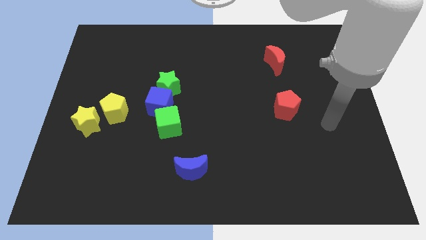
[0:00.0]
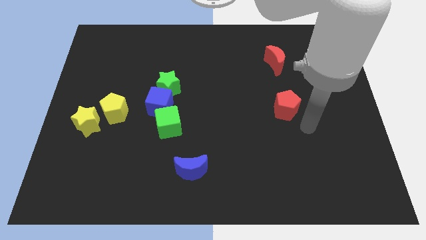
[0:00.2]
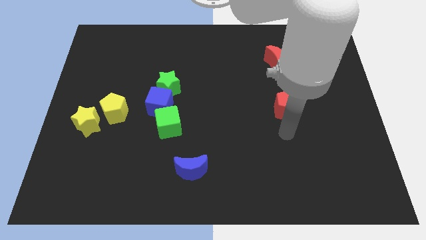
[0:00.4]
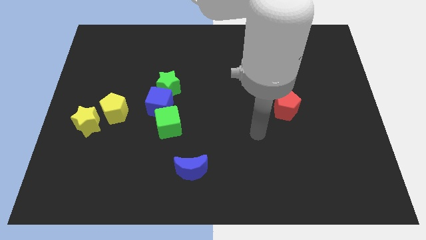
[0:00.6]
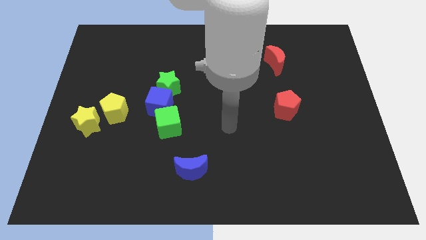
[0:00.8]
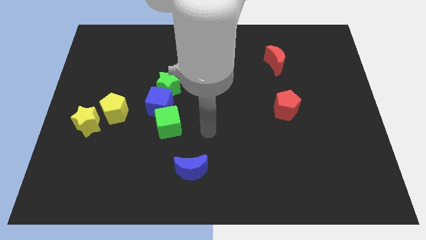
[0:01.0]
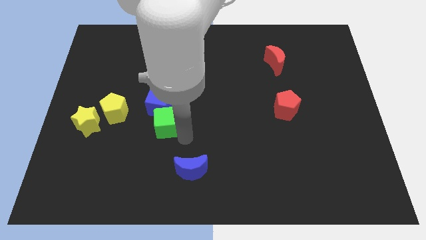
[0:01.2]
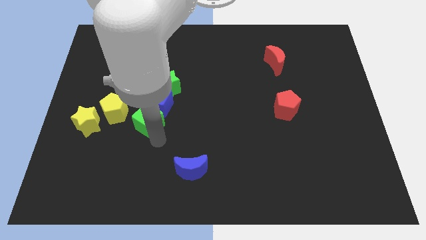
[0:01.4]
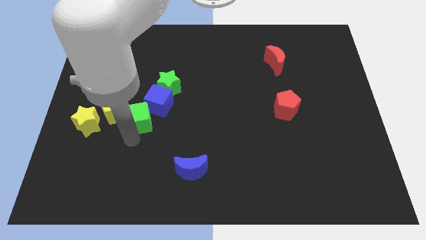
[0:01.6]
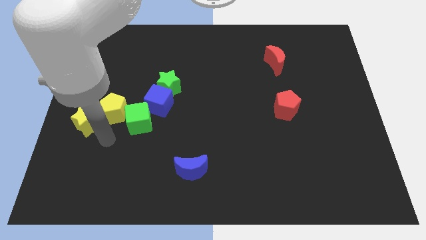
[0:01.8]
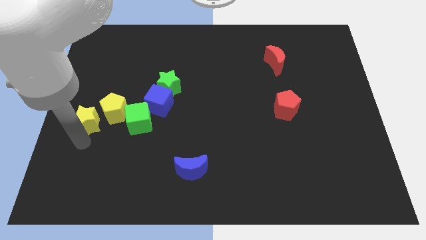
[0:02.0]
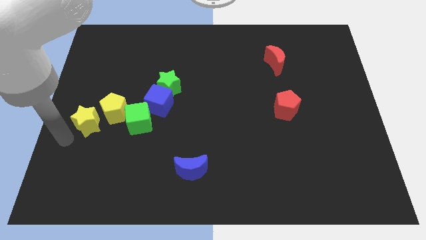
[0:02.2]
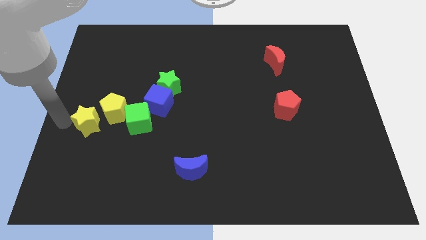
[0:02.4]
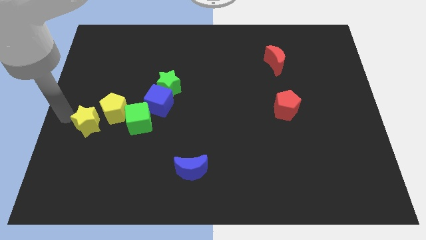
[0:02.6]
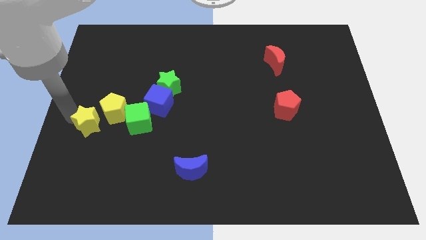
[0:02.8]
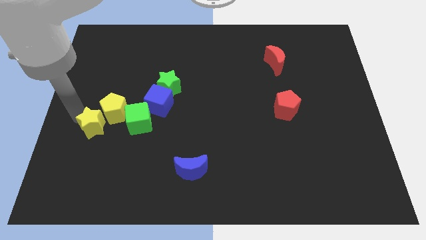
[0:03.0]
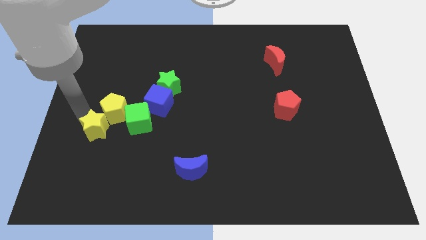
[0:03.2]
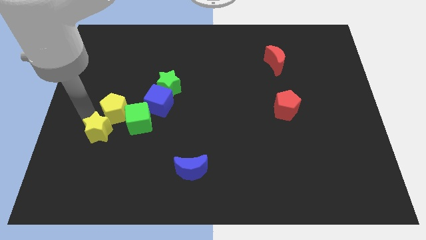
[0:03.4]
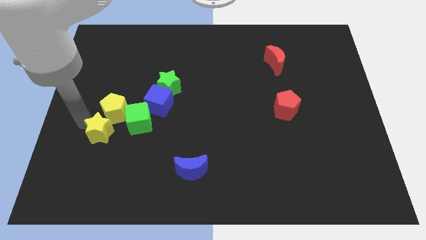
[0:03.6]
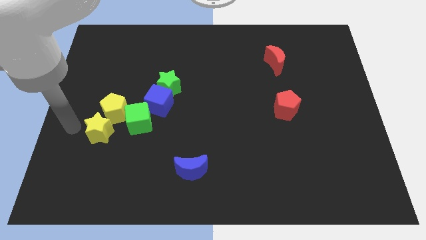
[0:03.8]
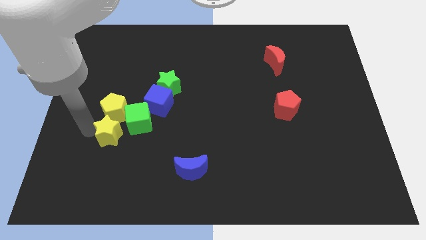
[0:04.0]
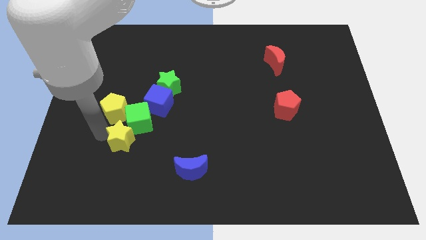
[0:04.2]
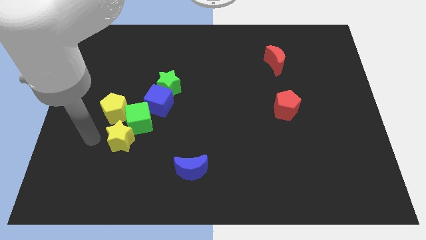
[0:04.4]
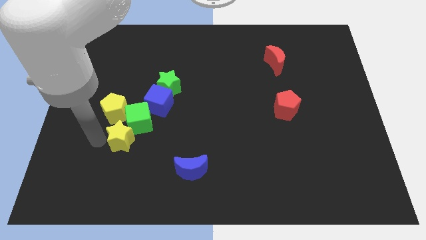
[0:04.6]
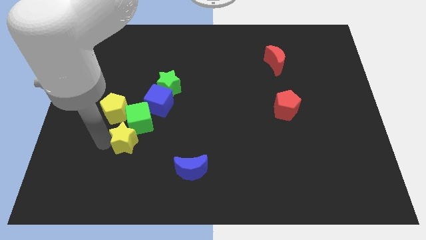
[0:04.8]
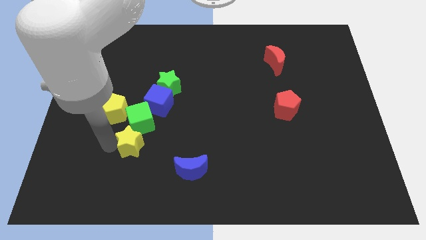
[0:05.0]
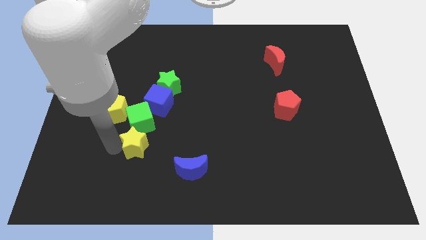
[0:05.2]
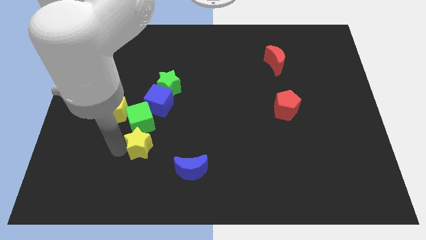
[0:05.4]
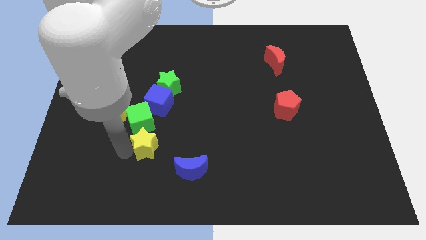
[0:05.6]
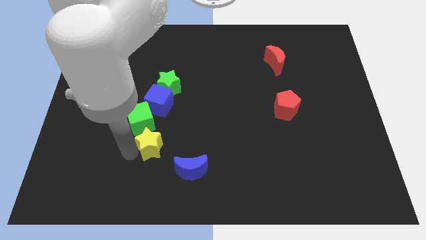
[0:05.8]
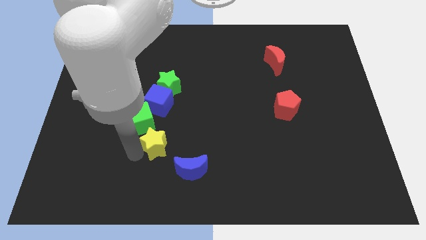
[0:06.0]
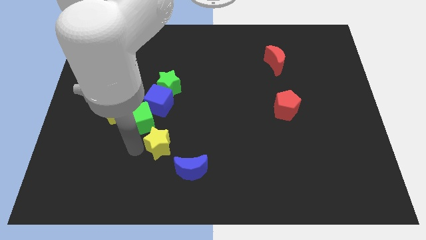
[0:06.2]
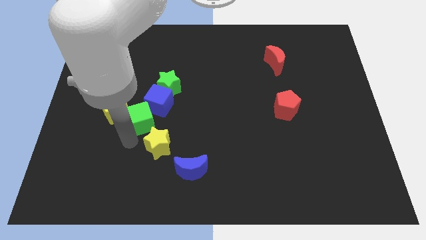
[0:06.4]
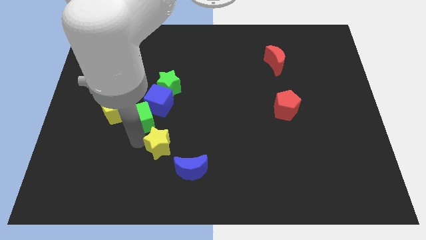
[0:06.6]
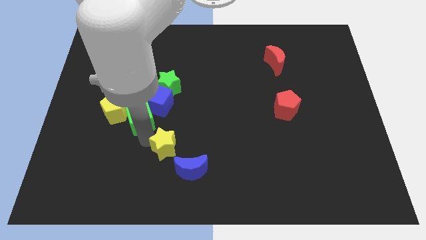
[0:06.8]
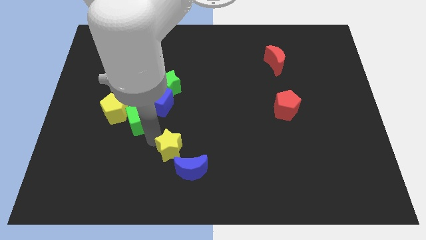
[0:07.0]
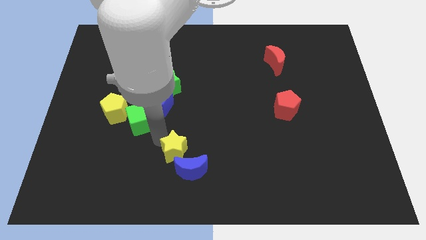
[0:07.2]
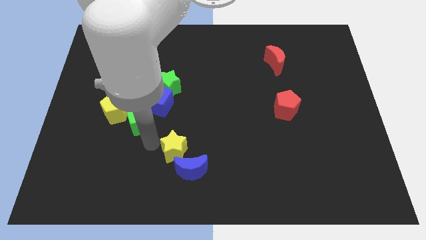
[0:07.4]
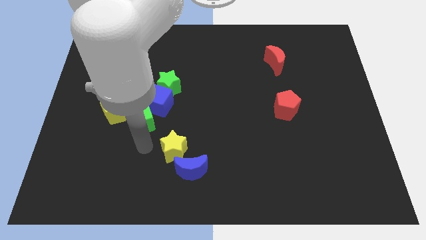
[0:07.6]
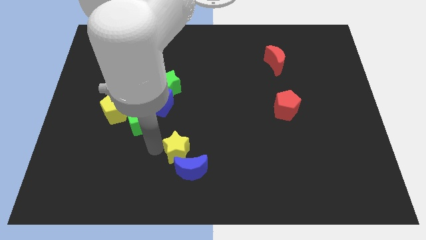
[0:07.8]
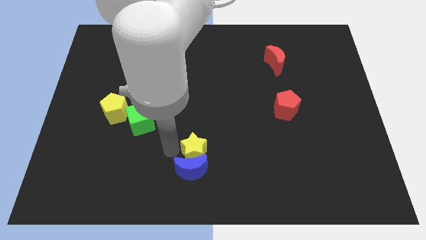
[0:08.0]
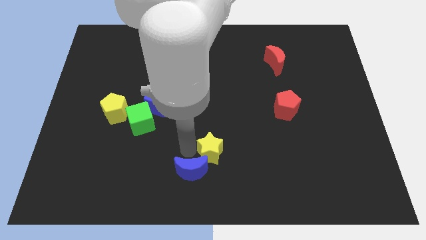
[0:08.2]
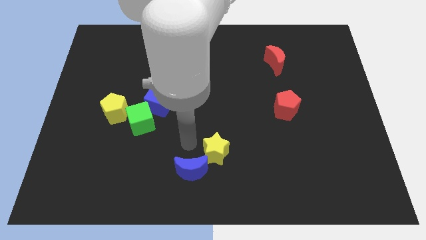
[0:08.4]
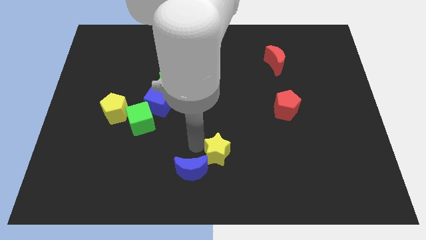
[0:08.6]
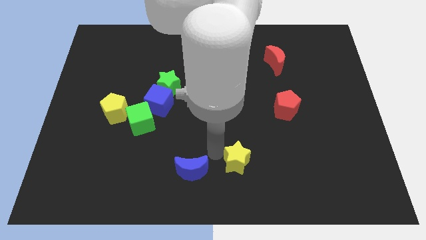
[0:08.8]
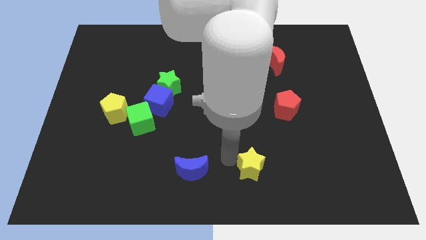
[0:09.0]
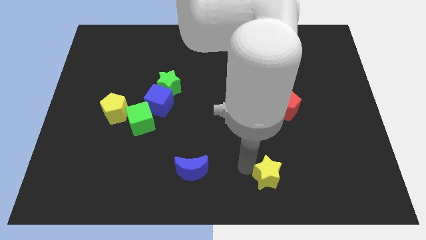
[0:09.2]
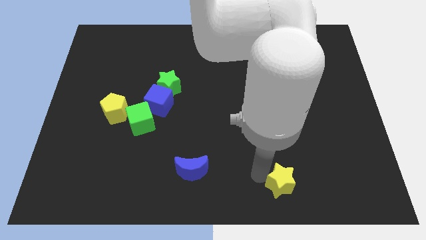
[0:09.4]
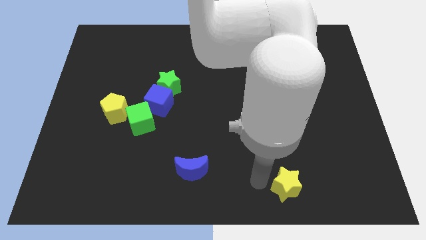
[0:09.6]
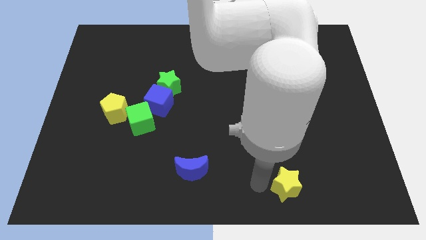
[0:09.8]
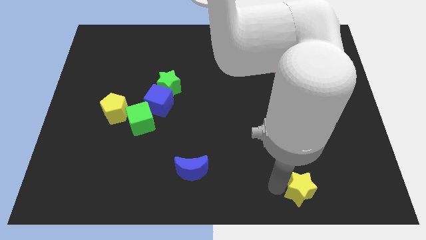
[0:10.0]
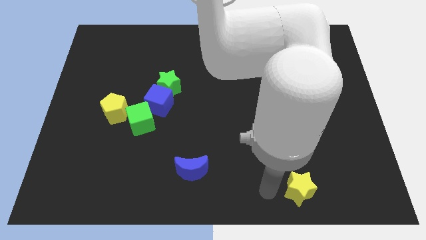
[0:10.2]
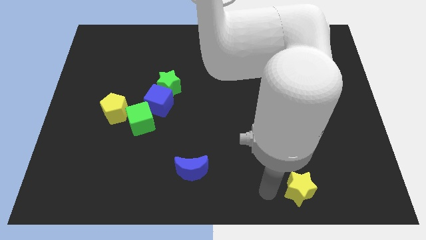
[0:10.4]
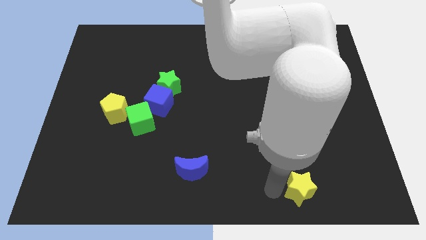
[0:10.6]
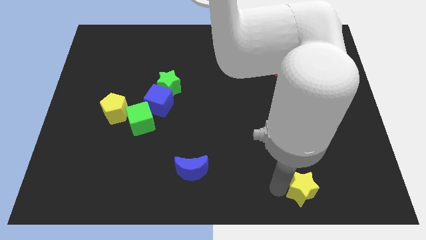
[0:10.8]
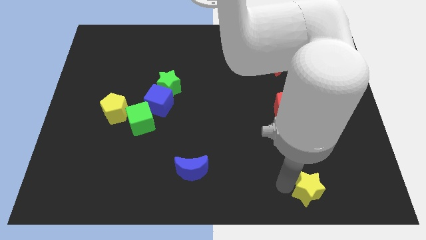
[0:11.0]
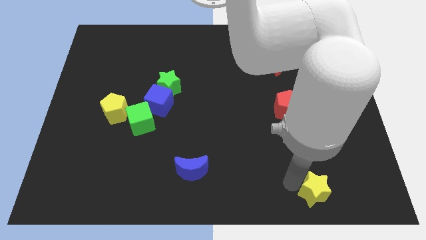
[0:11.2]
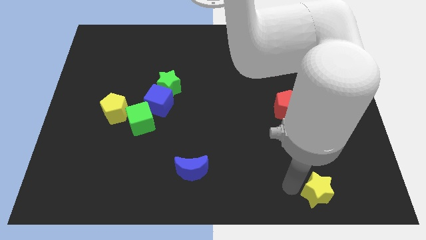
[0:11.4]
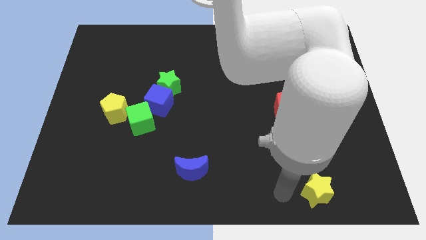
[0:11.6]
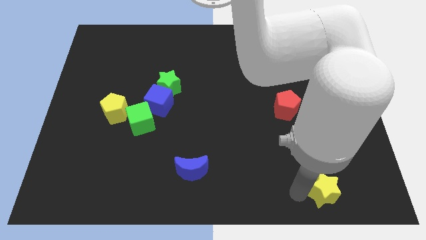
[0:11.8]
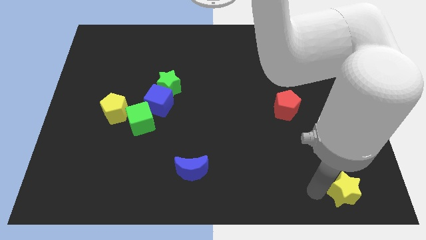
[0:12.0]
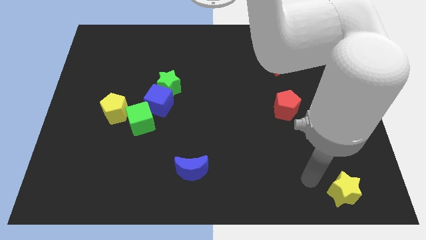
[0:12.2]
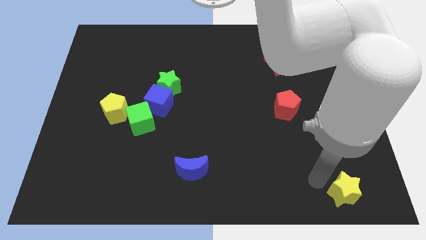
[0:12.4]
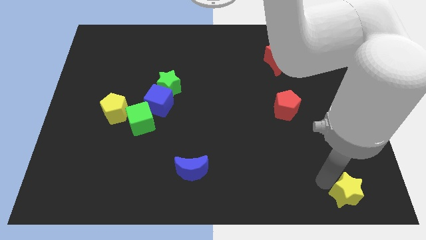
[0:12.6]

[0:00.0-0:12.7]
move the yellow star to the bottom right
